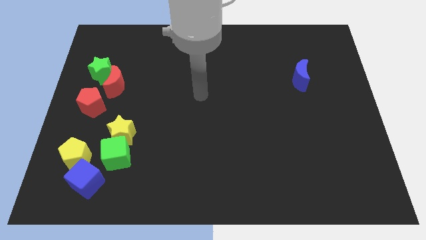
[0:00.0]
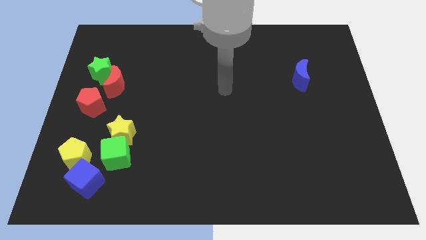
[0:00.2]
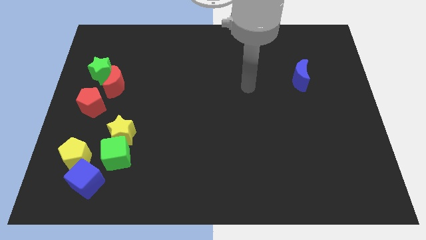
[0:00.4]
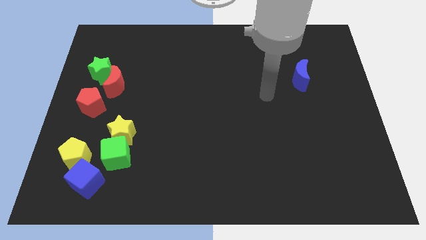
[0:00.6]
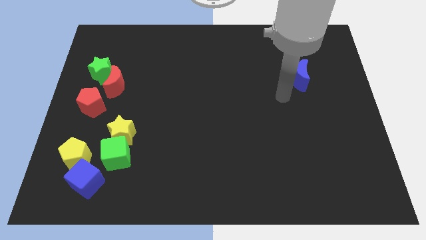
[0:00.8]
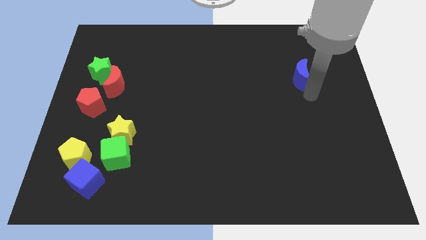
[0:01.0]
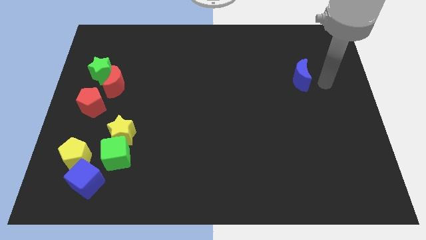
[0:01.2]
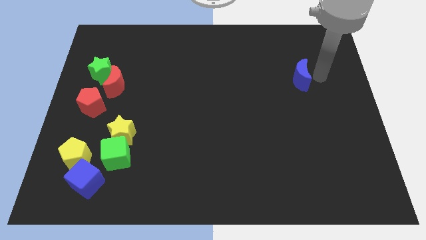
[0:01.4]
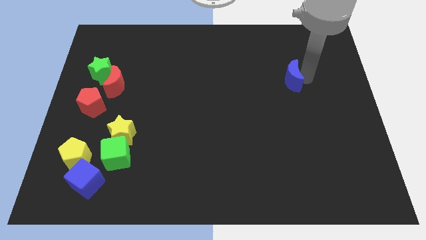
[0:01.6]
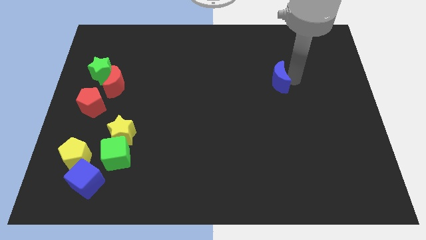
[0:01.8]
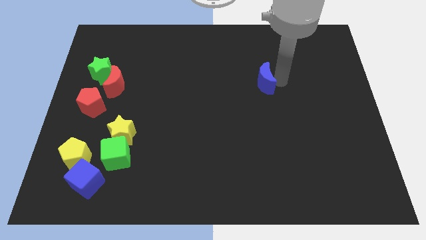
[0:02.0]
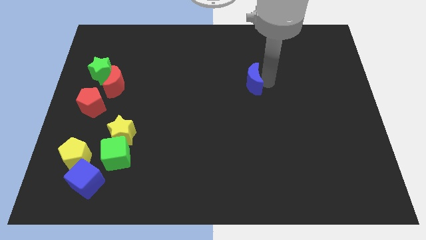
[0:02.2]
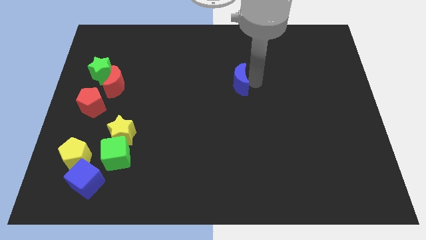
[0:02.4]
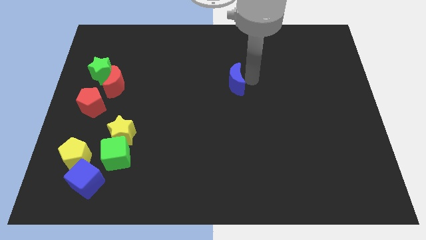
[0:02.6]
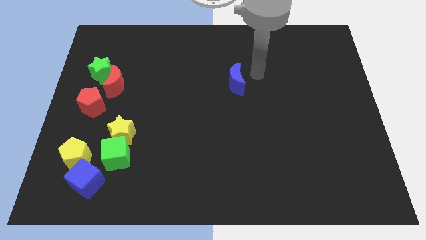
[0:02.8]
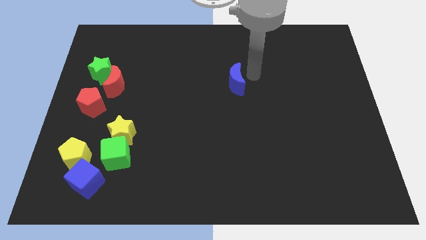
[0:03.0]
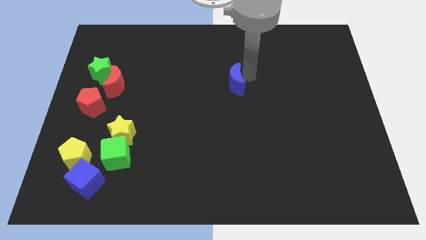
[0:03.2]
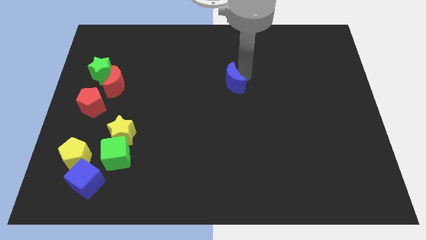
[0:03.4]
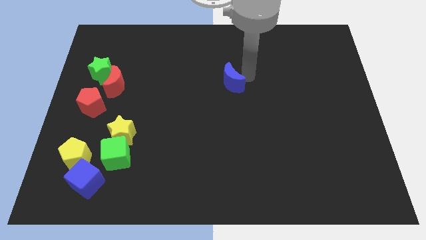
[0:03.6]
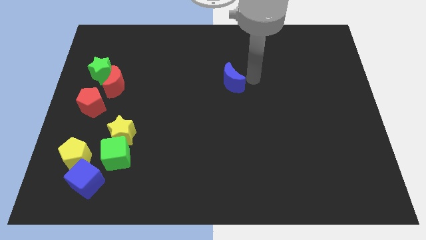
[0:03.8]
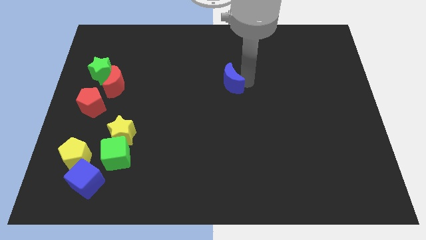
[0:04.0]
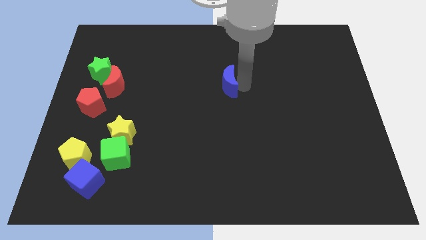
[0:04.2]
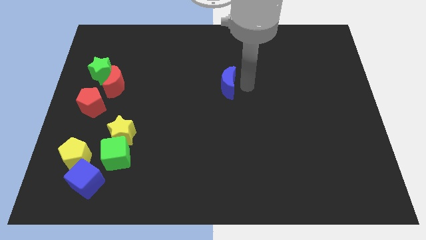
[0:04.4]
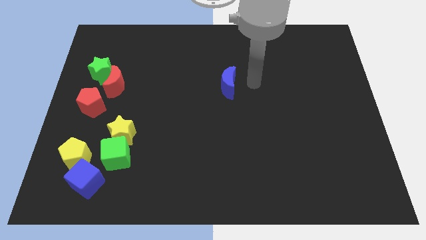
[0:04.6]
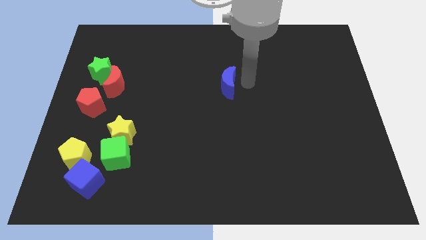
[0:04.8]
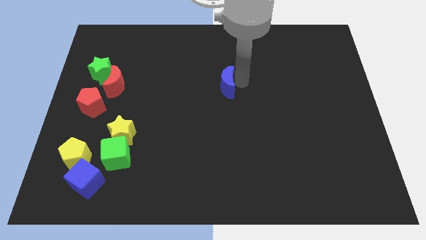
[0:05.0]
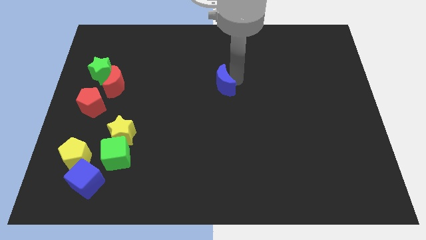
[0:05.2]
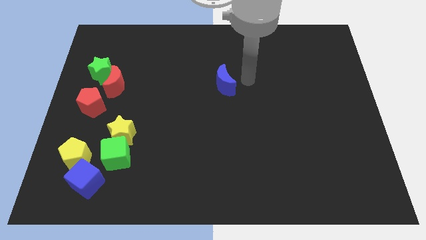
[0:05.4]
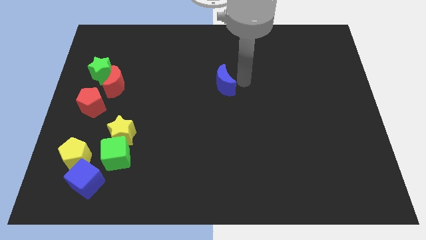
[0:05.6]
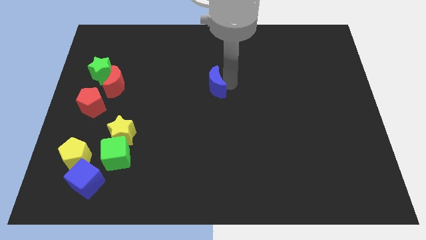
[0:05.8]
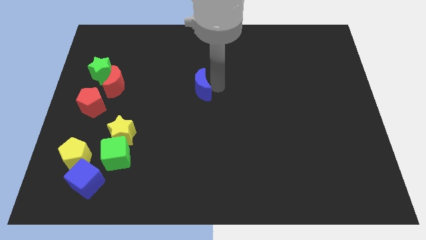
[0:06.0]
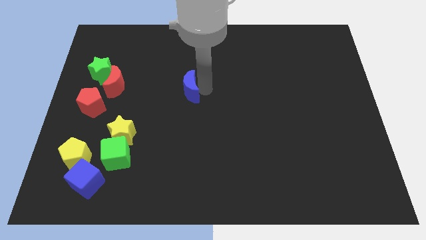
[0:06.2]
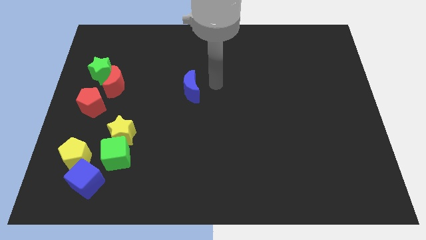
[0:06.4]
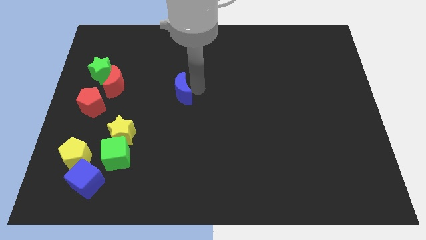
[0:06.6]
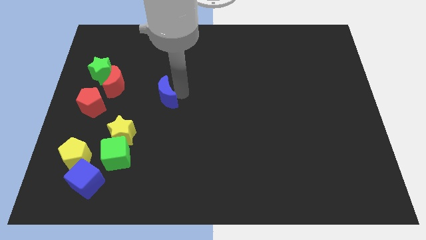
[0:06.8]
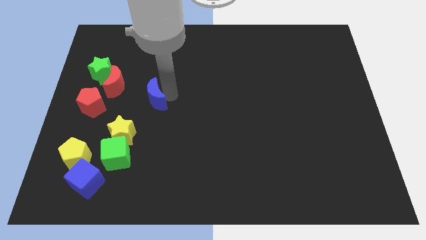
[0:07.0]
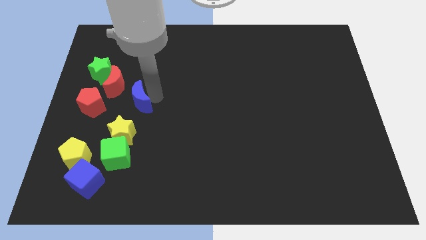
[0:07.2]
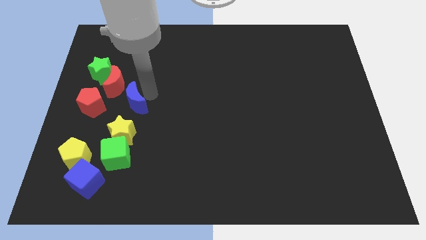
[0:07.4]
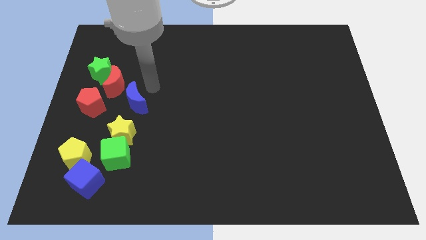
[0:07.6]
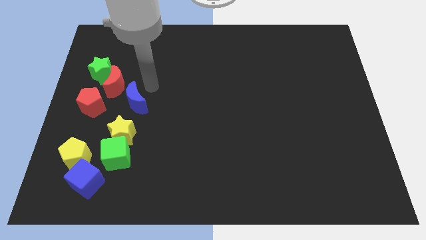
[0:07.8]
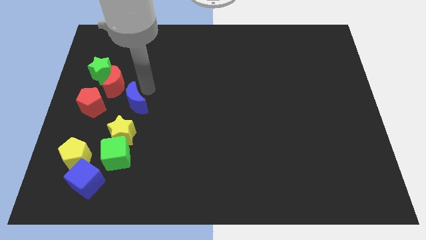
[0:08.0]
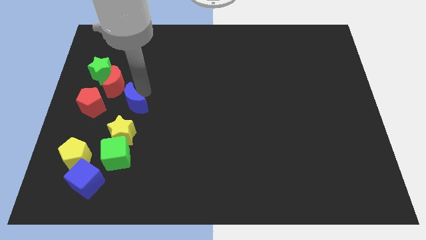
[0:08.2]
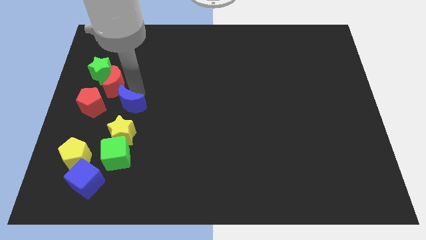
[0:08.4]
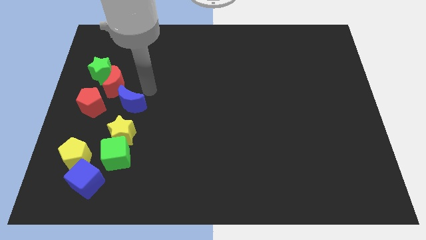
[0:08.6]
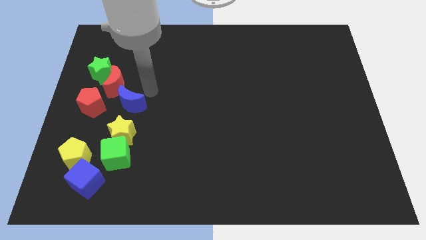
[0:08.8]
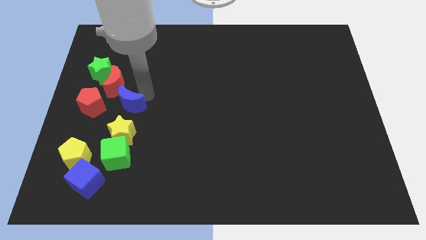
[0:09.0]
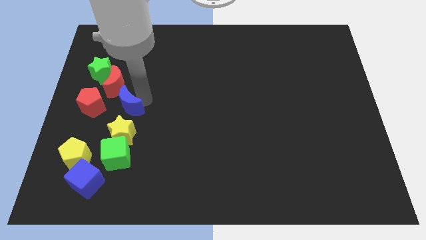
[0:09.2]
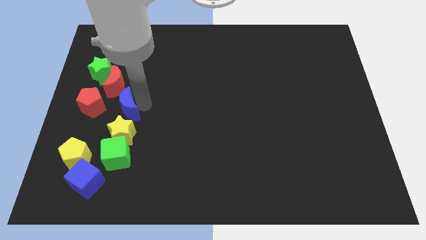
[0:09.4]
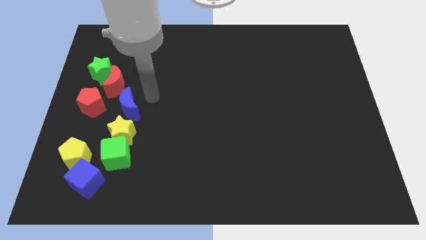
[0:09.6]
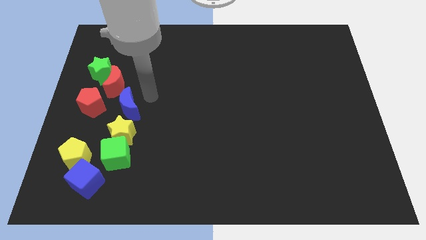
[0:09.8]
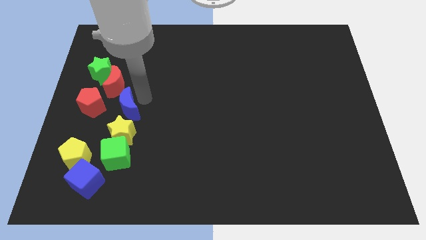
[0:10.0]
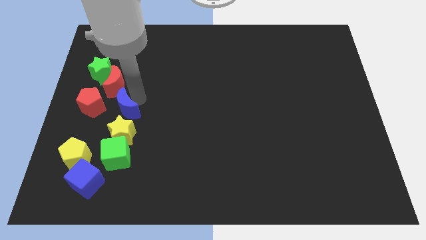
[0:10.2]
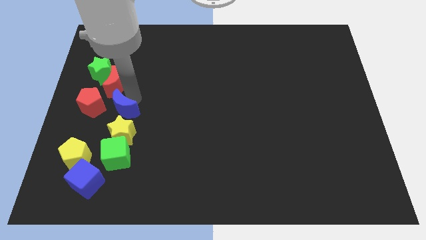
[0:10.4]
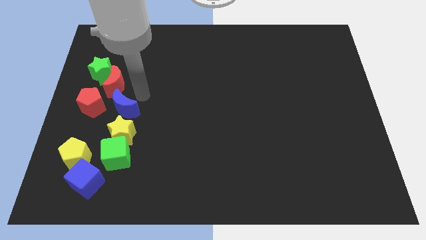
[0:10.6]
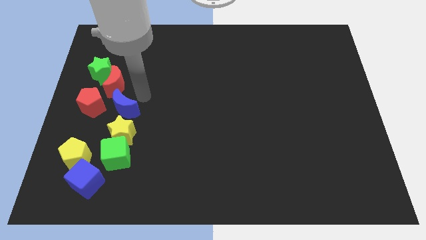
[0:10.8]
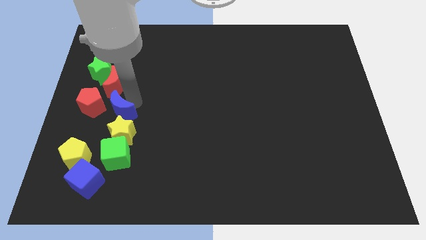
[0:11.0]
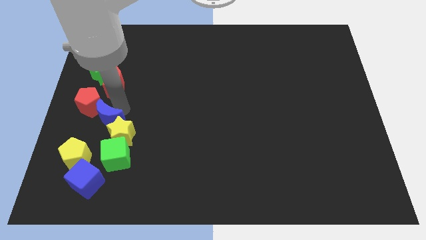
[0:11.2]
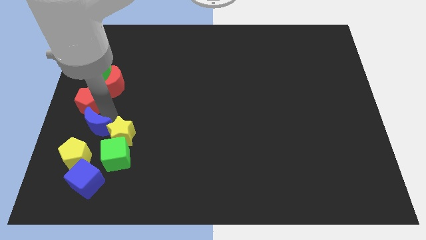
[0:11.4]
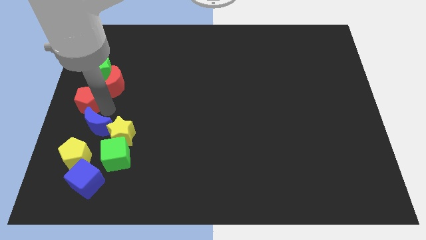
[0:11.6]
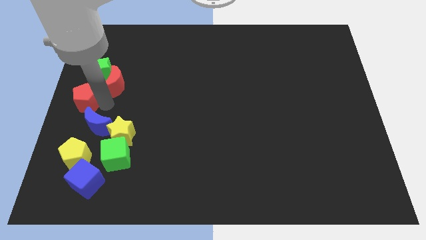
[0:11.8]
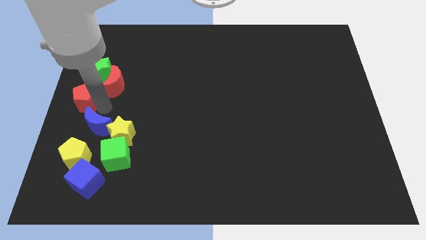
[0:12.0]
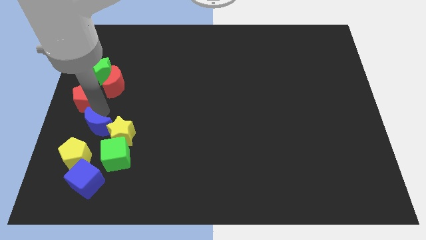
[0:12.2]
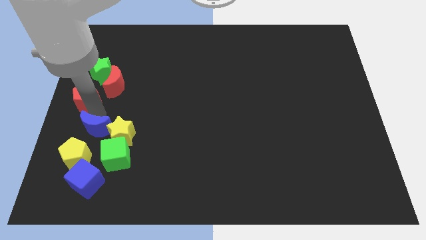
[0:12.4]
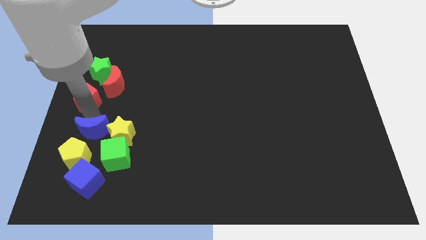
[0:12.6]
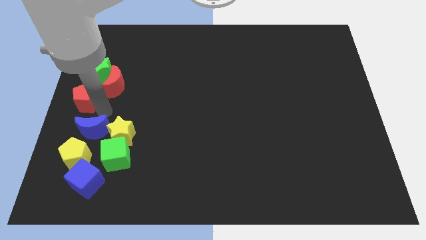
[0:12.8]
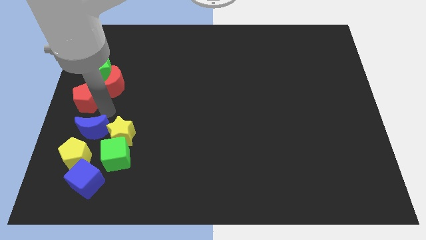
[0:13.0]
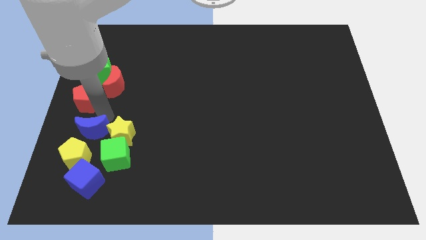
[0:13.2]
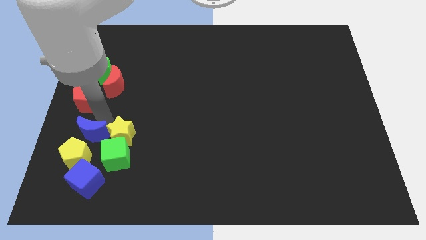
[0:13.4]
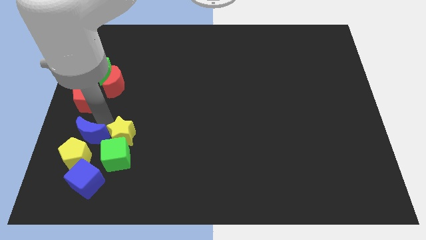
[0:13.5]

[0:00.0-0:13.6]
move the blue moon to the yellow pentagon
